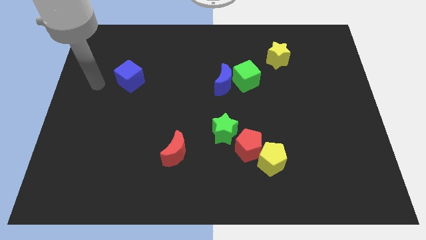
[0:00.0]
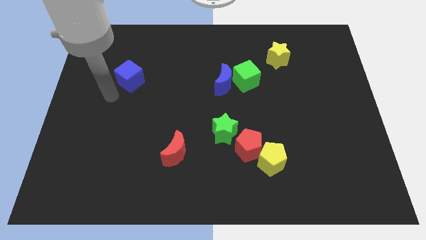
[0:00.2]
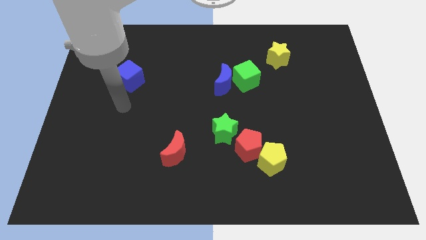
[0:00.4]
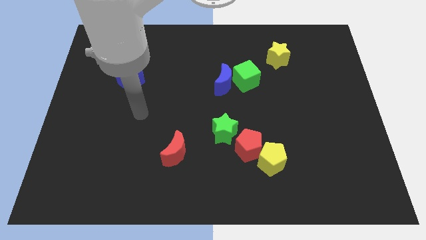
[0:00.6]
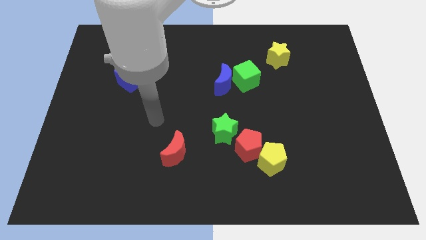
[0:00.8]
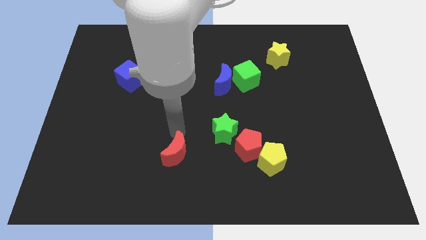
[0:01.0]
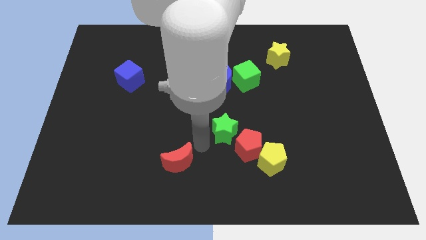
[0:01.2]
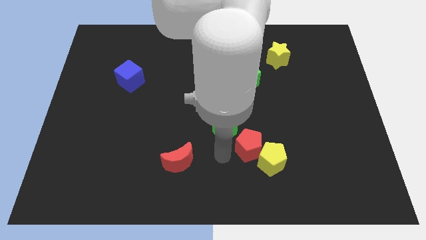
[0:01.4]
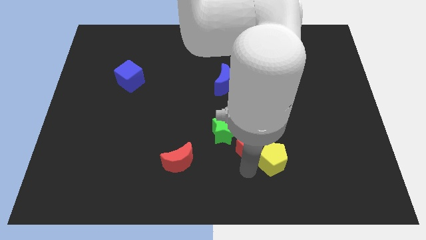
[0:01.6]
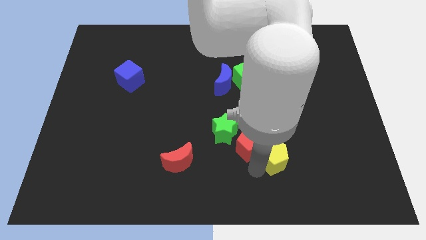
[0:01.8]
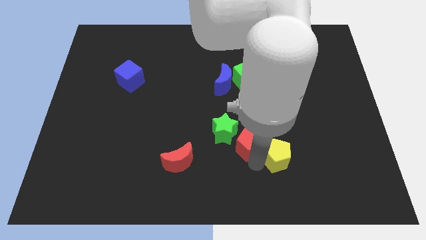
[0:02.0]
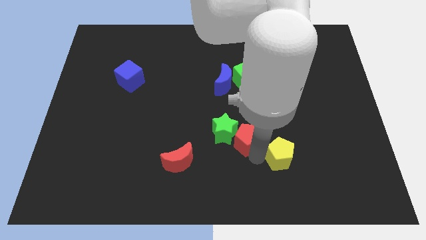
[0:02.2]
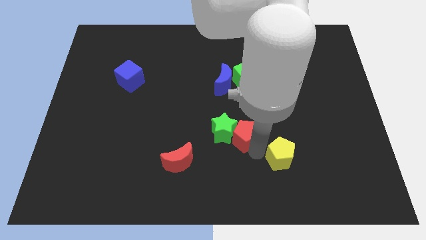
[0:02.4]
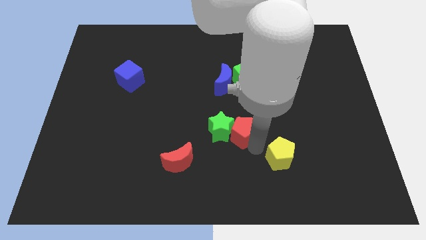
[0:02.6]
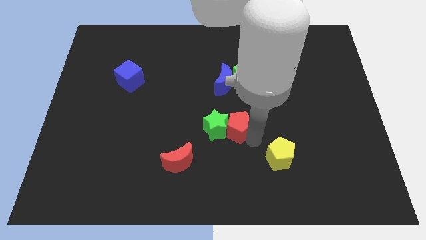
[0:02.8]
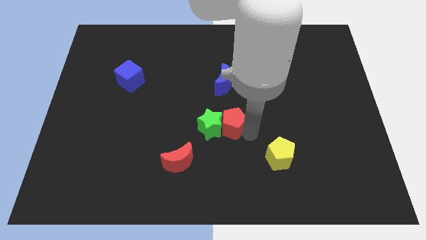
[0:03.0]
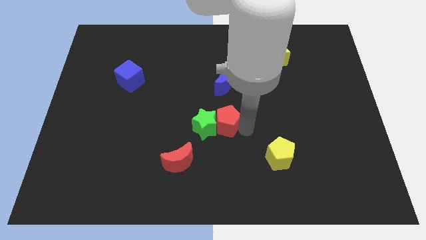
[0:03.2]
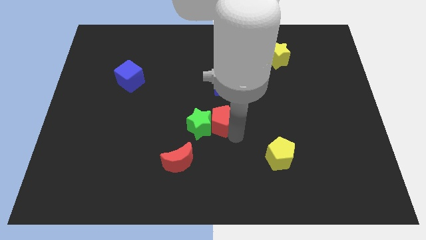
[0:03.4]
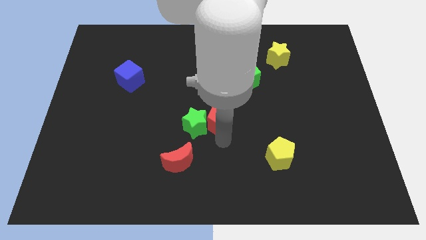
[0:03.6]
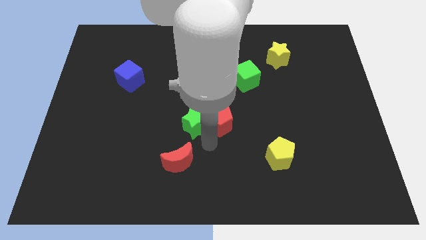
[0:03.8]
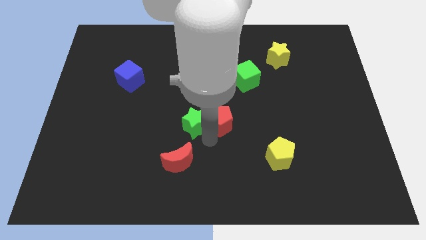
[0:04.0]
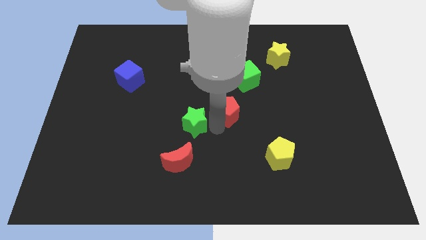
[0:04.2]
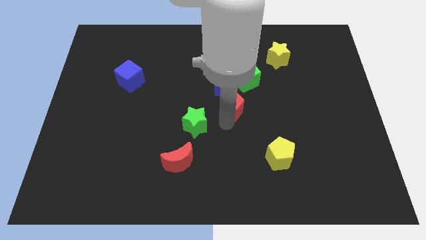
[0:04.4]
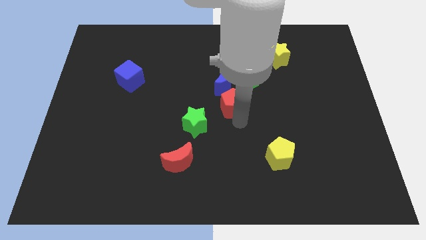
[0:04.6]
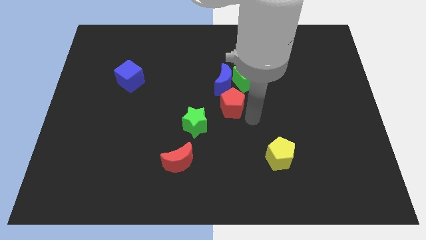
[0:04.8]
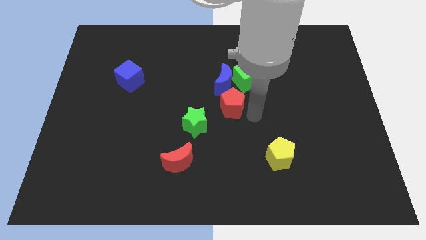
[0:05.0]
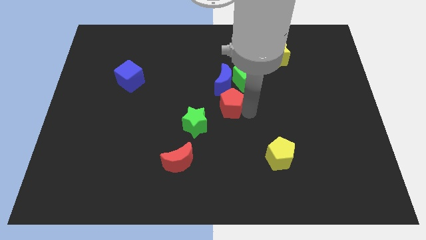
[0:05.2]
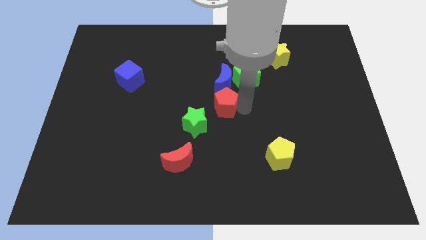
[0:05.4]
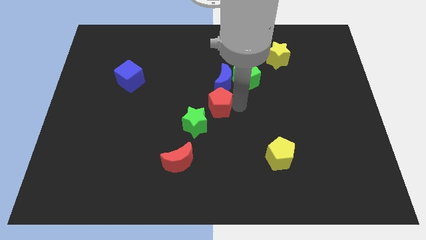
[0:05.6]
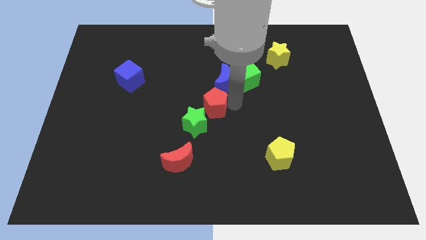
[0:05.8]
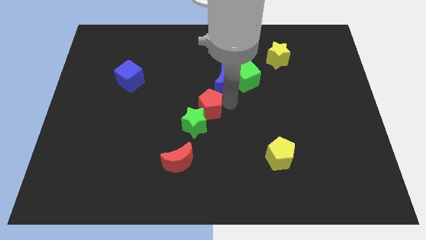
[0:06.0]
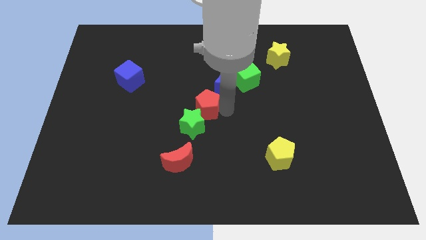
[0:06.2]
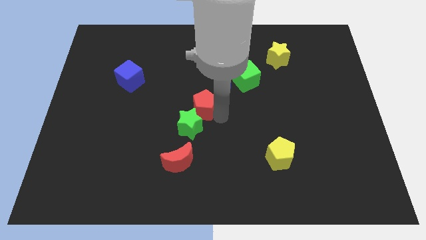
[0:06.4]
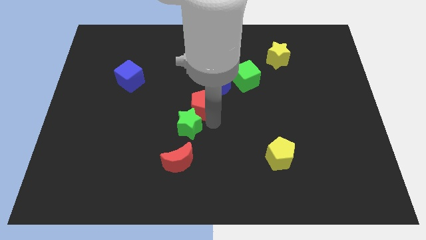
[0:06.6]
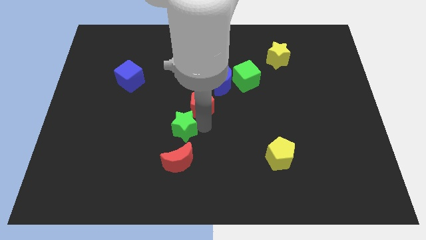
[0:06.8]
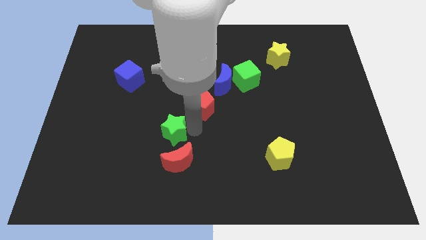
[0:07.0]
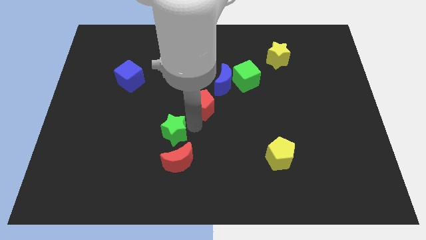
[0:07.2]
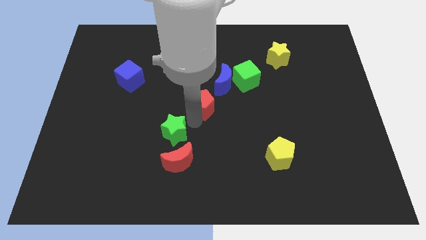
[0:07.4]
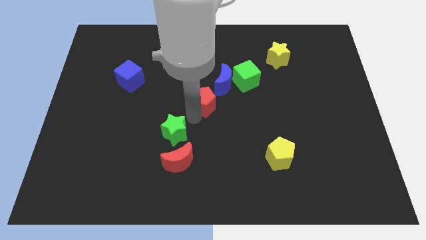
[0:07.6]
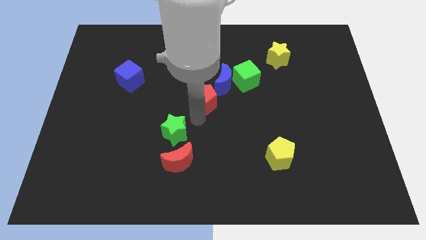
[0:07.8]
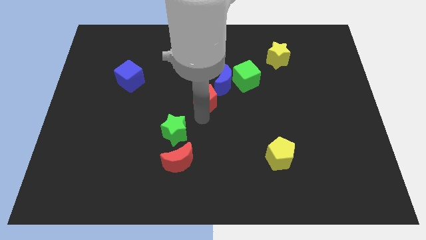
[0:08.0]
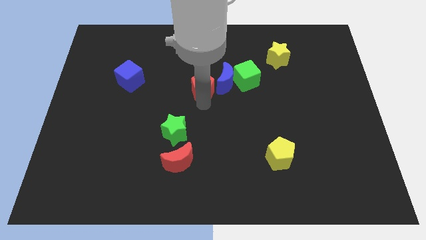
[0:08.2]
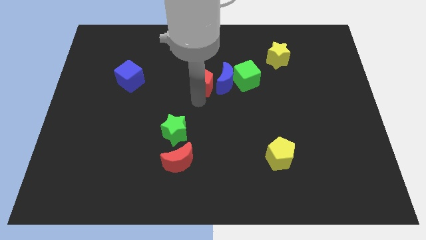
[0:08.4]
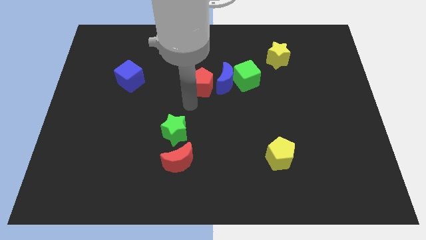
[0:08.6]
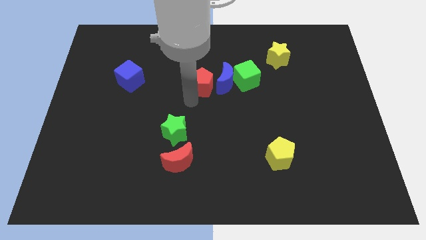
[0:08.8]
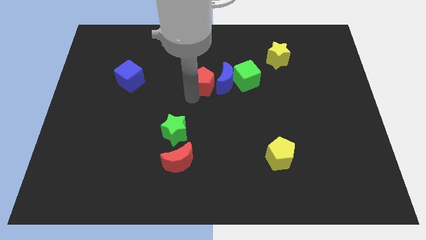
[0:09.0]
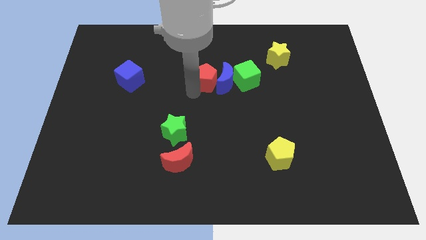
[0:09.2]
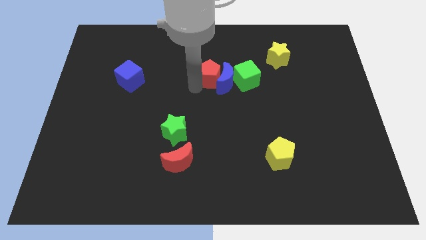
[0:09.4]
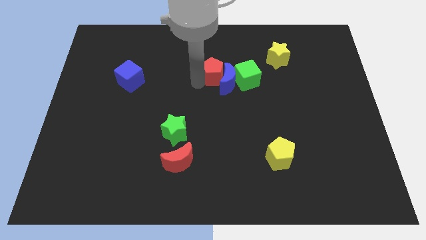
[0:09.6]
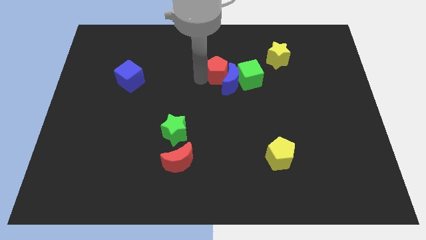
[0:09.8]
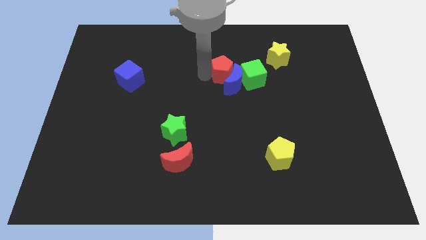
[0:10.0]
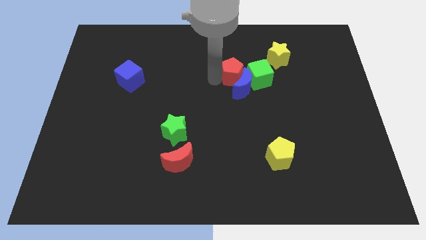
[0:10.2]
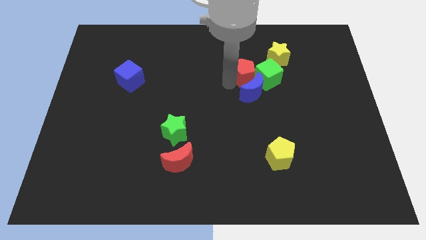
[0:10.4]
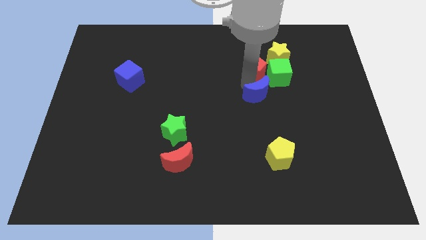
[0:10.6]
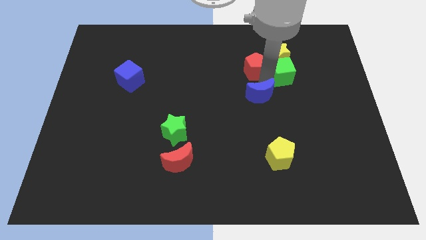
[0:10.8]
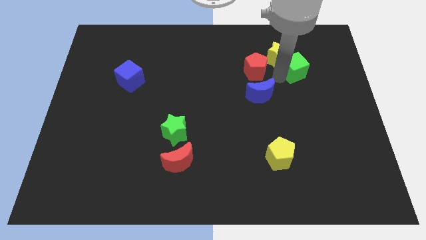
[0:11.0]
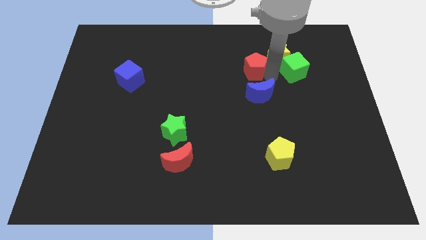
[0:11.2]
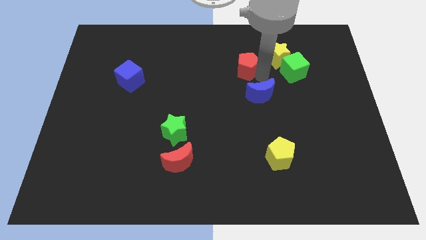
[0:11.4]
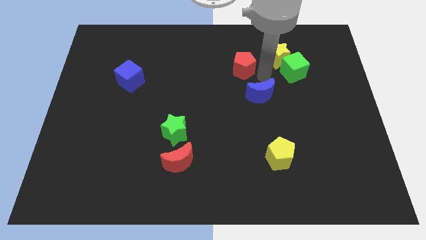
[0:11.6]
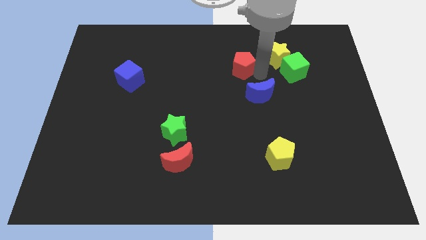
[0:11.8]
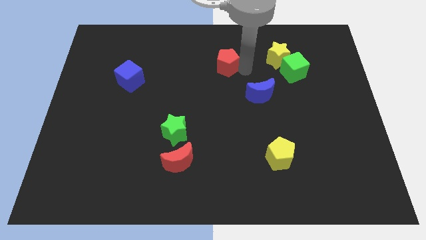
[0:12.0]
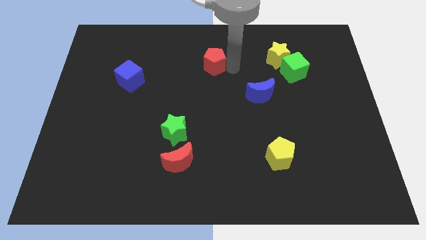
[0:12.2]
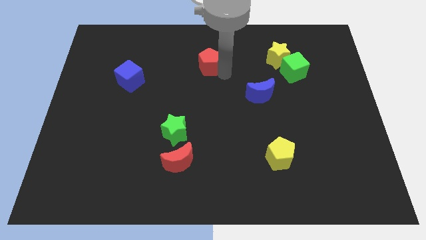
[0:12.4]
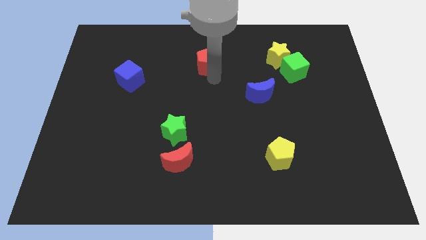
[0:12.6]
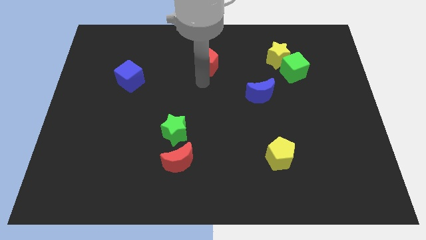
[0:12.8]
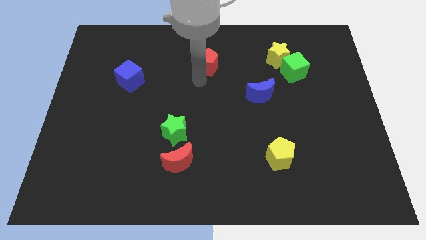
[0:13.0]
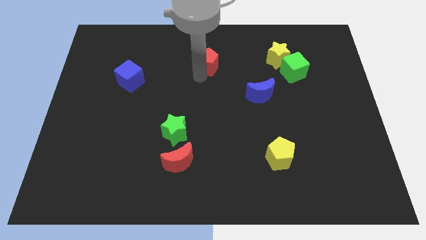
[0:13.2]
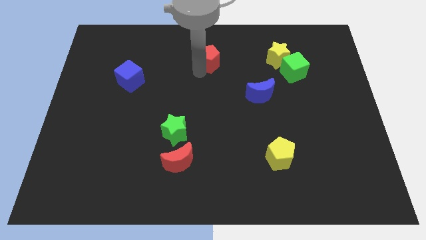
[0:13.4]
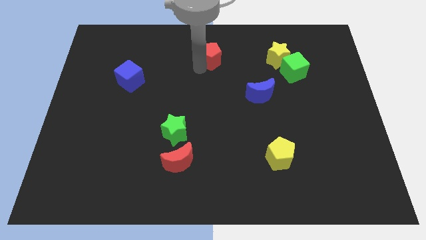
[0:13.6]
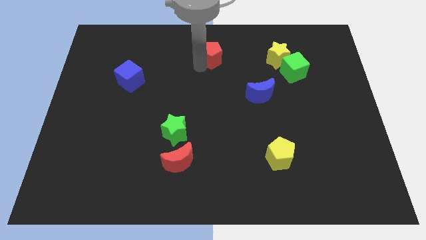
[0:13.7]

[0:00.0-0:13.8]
put the red pentagon to the towards your base
